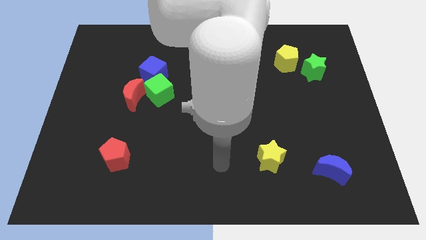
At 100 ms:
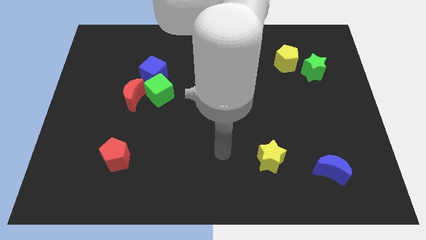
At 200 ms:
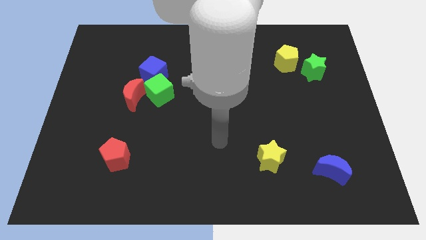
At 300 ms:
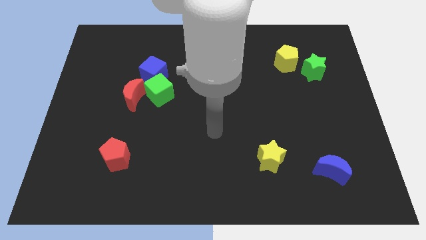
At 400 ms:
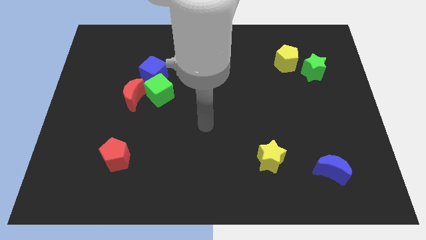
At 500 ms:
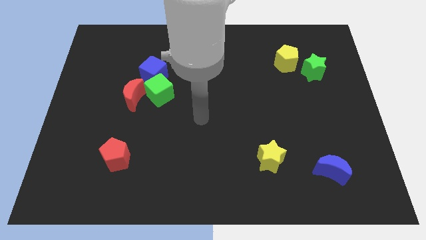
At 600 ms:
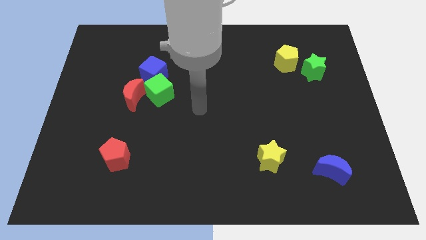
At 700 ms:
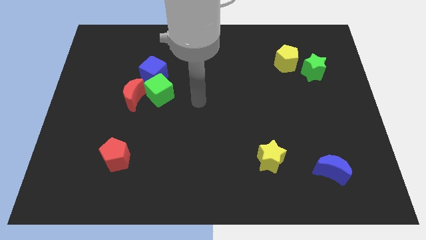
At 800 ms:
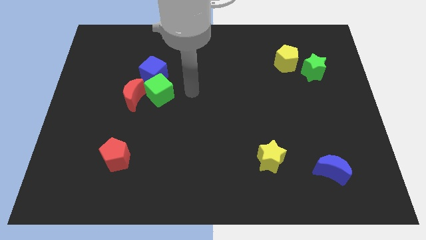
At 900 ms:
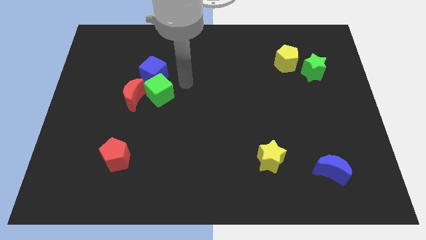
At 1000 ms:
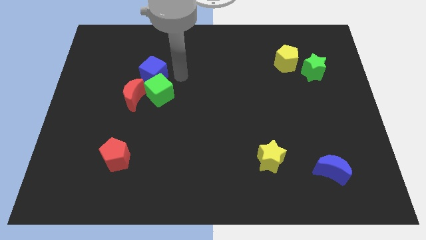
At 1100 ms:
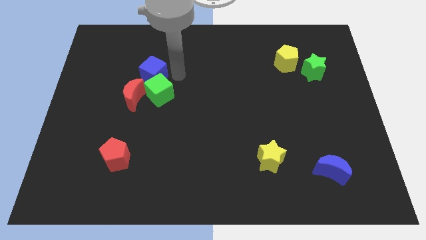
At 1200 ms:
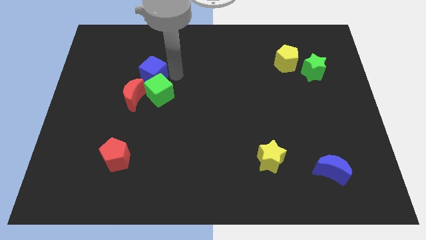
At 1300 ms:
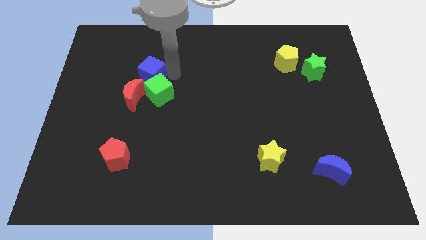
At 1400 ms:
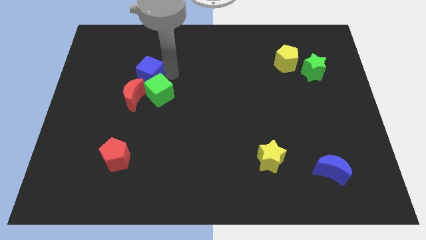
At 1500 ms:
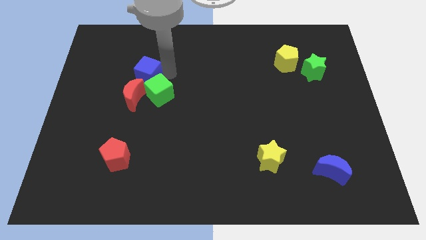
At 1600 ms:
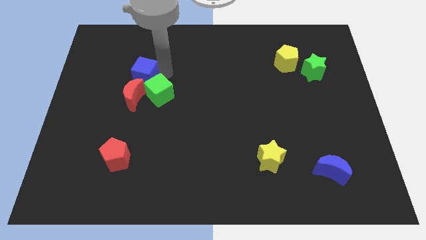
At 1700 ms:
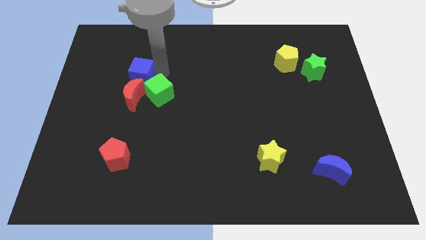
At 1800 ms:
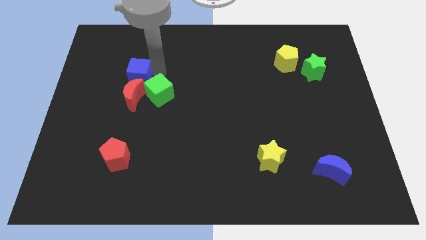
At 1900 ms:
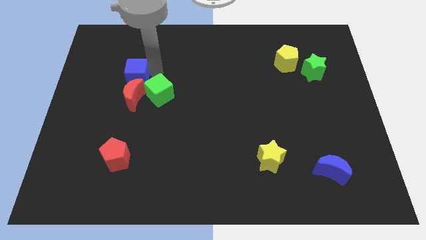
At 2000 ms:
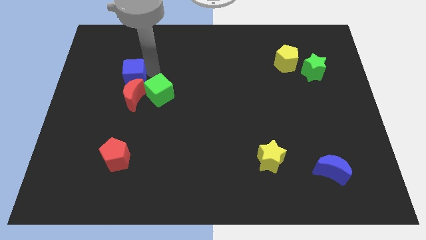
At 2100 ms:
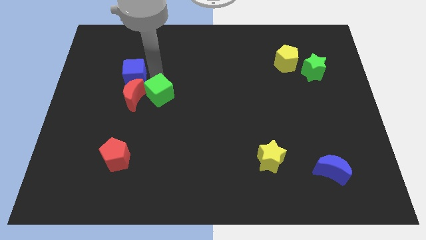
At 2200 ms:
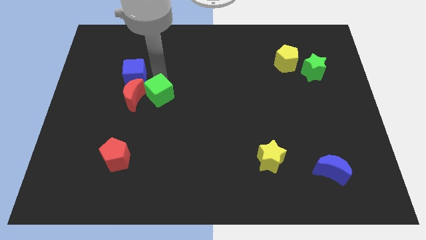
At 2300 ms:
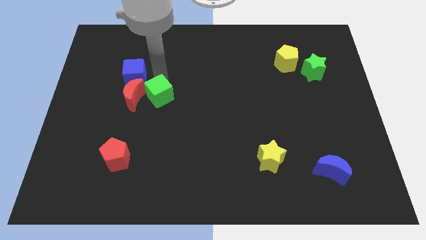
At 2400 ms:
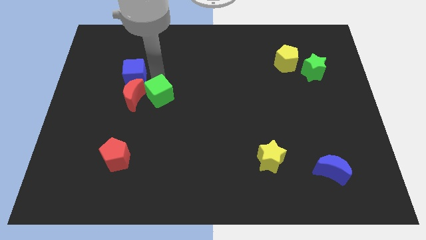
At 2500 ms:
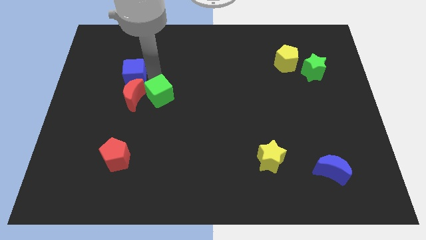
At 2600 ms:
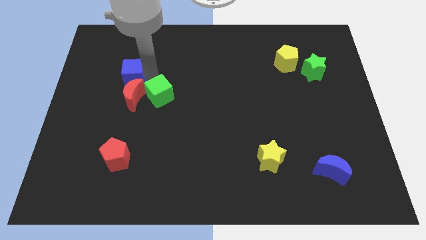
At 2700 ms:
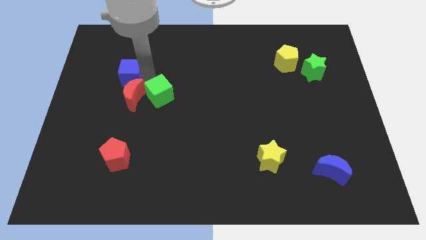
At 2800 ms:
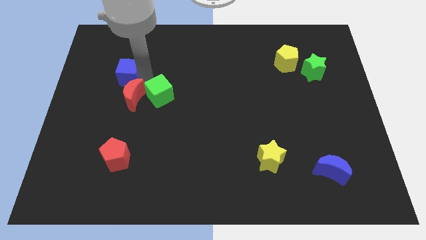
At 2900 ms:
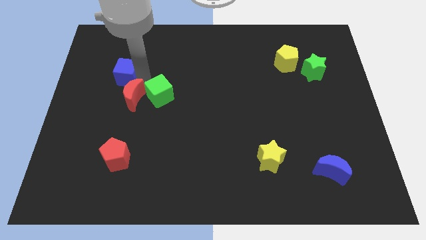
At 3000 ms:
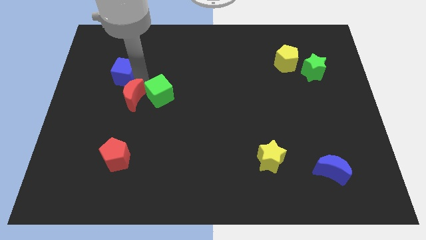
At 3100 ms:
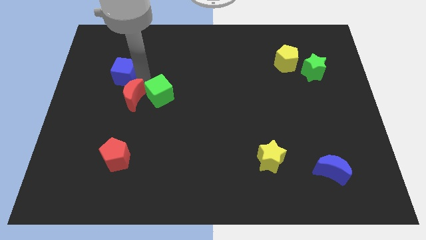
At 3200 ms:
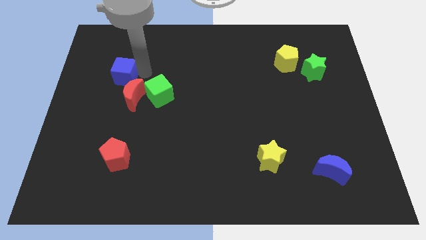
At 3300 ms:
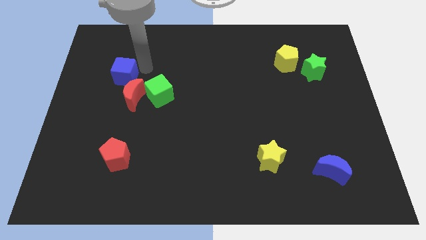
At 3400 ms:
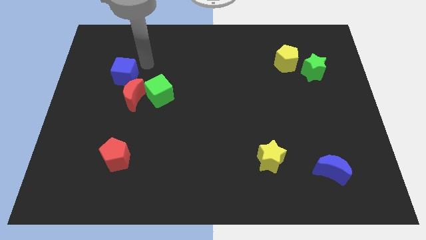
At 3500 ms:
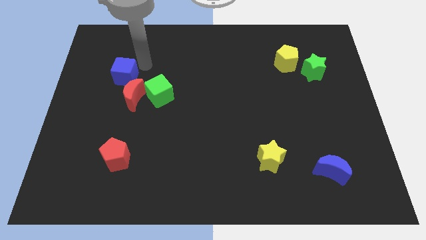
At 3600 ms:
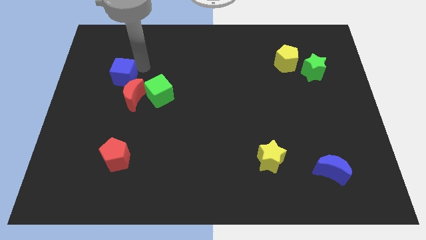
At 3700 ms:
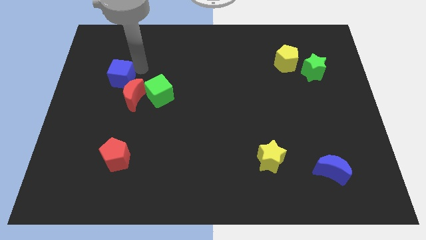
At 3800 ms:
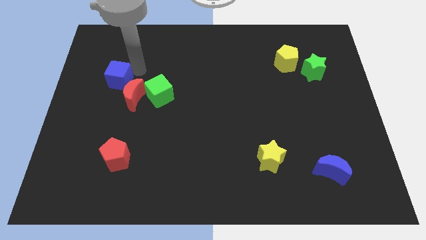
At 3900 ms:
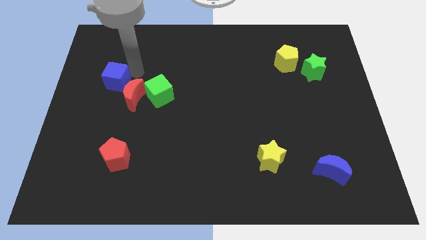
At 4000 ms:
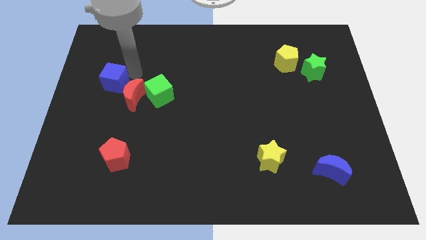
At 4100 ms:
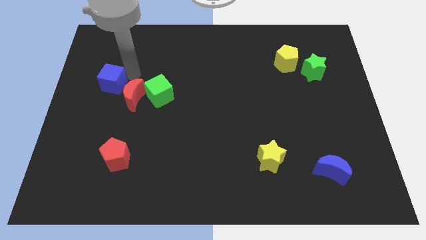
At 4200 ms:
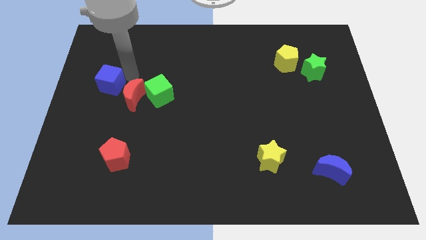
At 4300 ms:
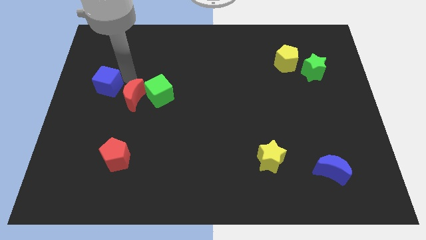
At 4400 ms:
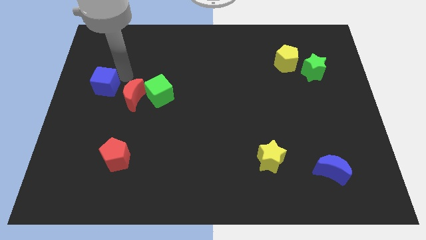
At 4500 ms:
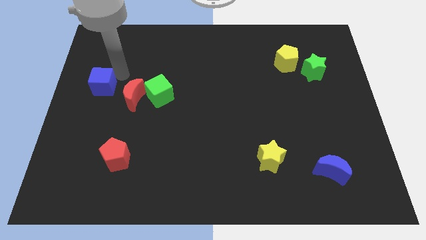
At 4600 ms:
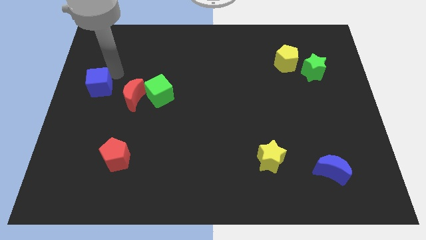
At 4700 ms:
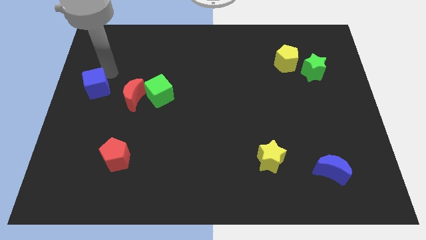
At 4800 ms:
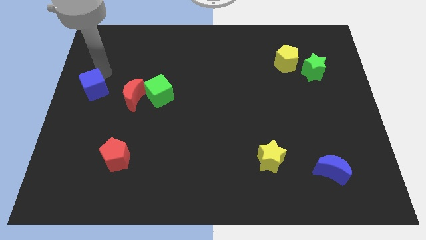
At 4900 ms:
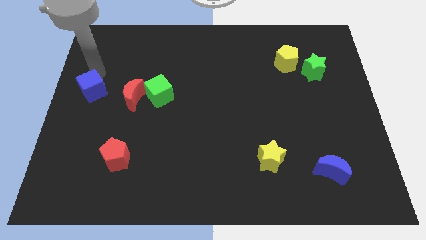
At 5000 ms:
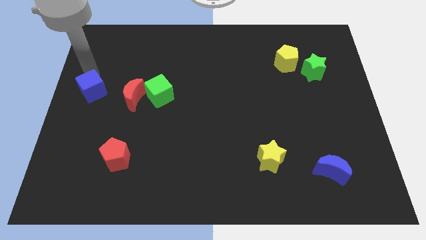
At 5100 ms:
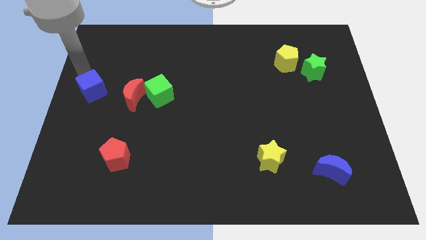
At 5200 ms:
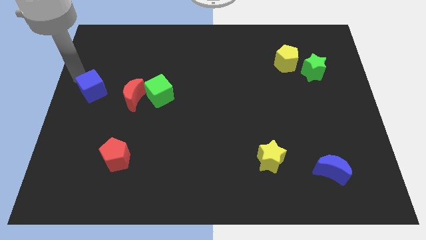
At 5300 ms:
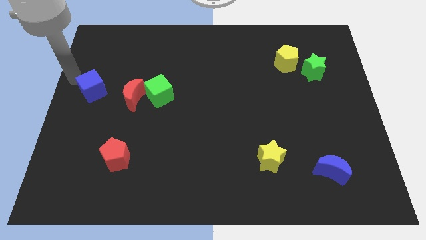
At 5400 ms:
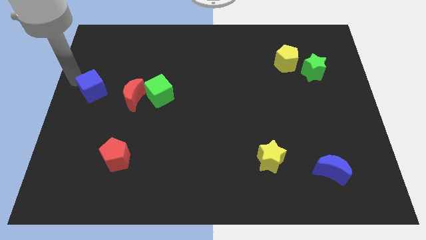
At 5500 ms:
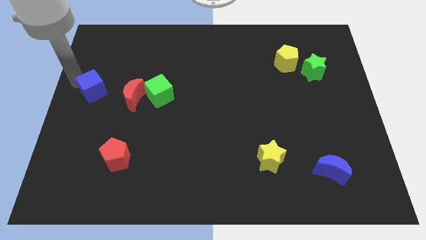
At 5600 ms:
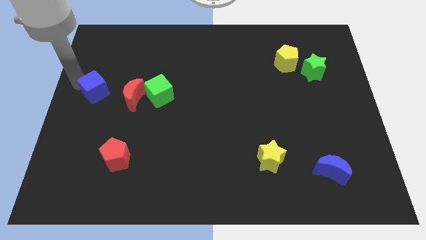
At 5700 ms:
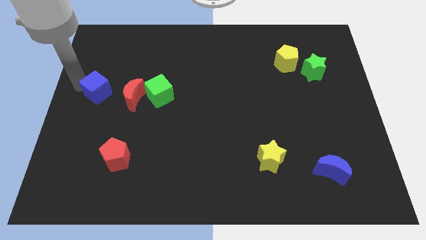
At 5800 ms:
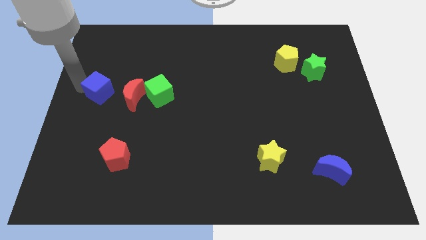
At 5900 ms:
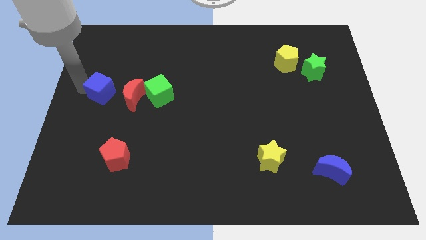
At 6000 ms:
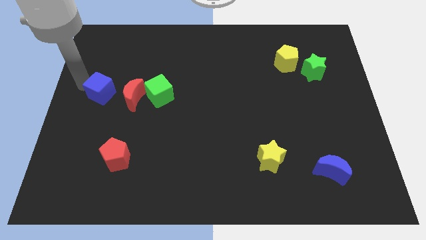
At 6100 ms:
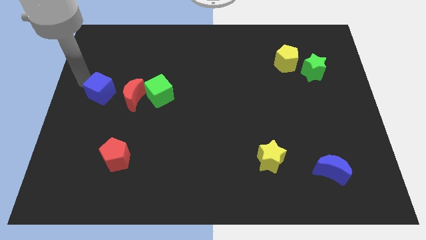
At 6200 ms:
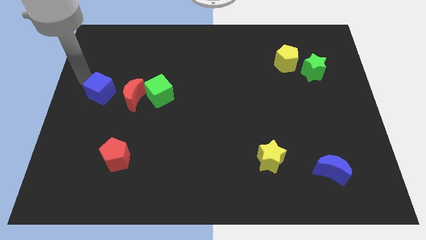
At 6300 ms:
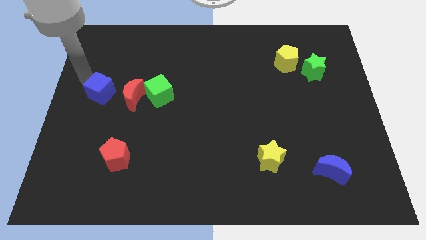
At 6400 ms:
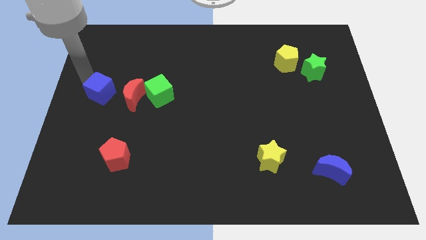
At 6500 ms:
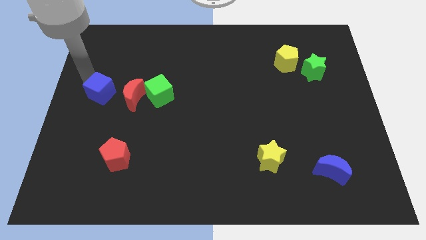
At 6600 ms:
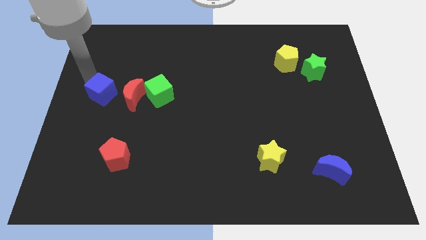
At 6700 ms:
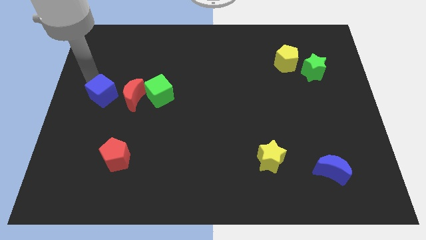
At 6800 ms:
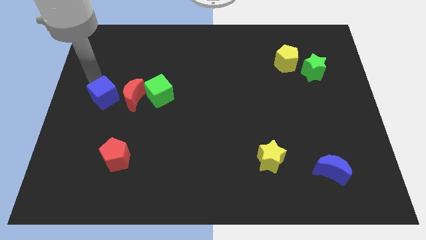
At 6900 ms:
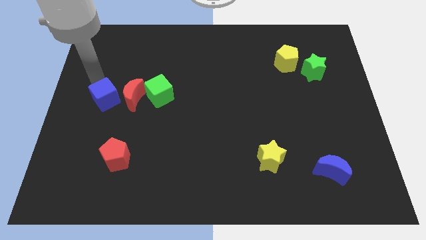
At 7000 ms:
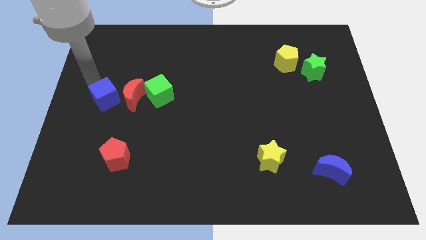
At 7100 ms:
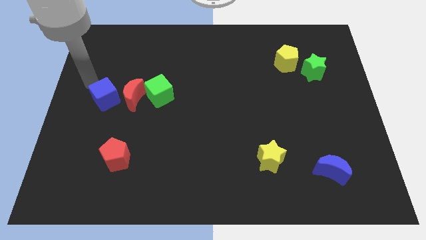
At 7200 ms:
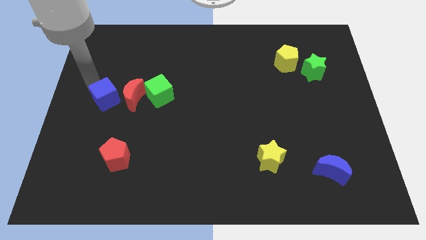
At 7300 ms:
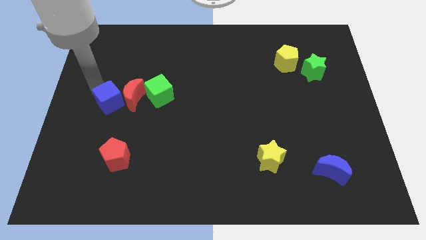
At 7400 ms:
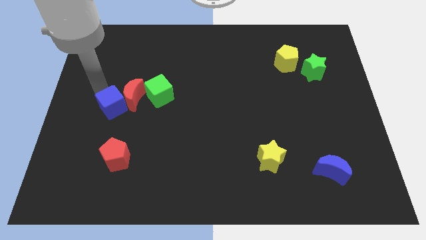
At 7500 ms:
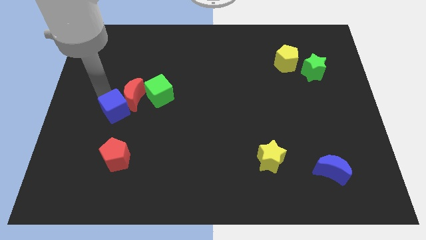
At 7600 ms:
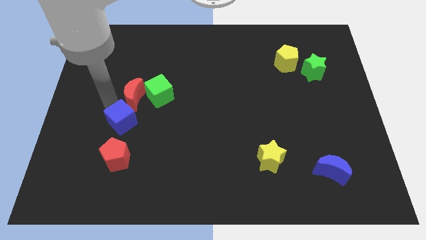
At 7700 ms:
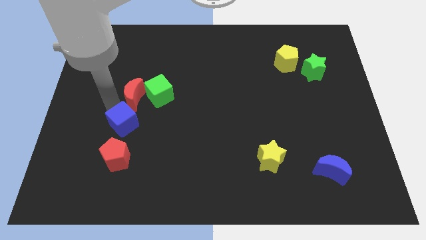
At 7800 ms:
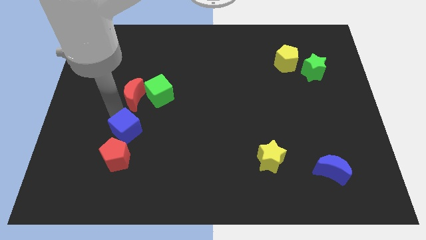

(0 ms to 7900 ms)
move the blue cube to the top right side of the red pentagon
